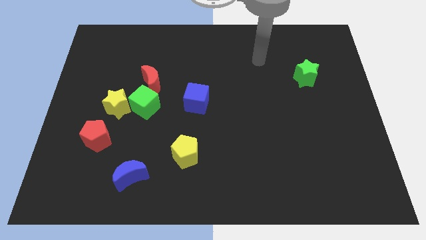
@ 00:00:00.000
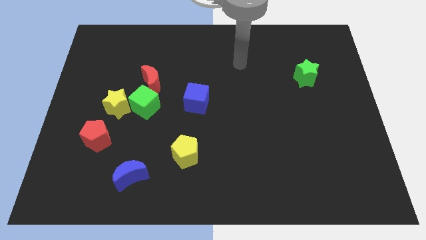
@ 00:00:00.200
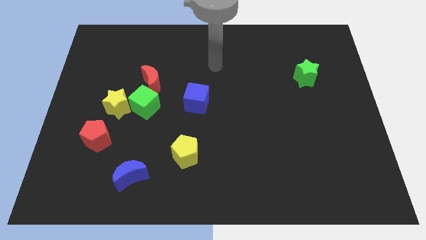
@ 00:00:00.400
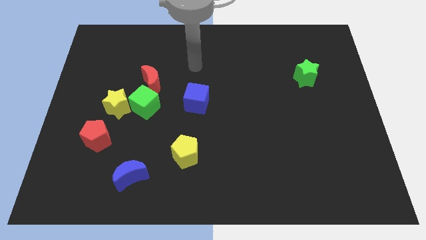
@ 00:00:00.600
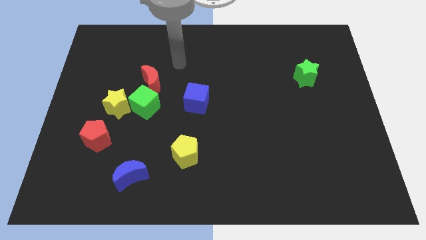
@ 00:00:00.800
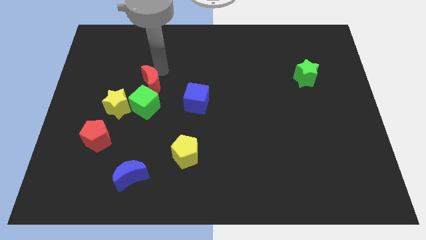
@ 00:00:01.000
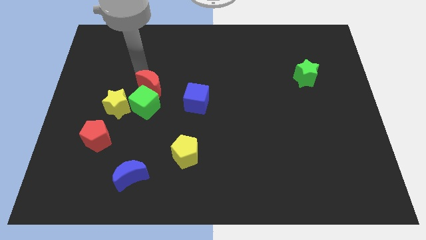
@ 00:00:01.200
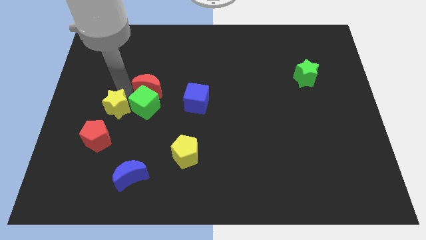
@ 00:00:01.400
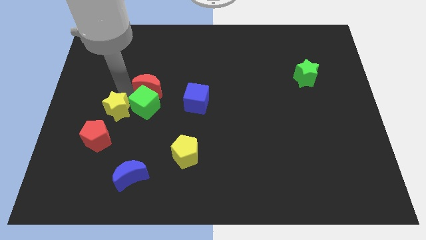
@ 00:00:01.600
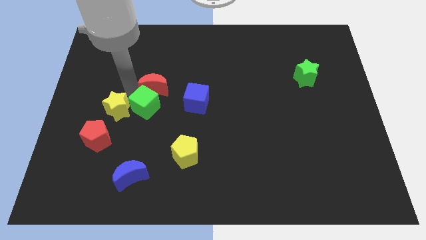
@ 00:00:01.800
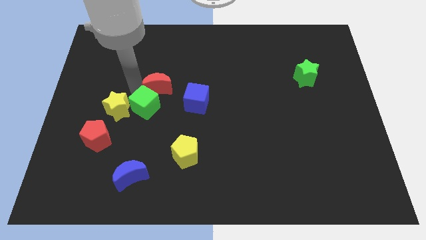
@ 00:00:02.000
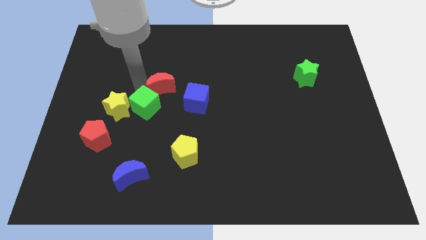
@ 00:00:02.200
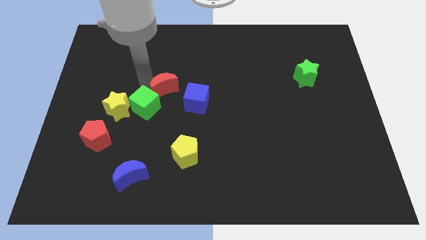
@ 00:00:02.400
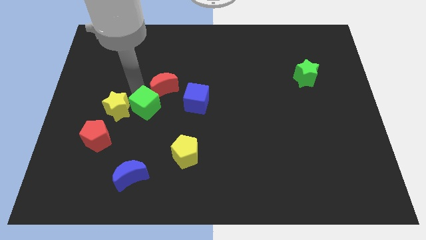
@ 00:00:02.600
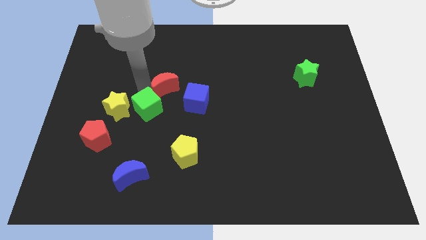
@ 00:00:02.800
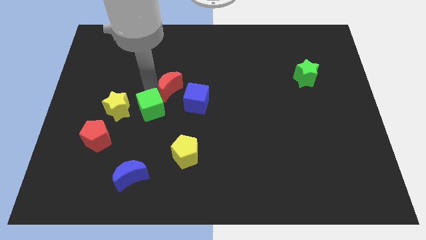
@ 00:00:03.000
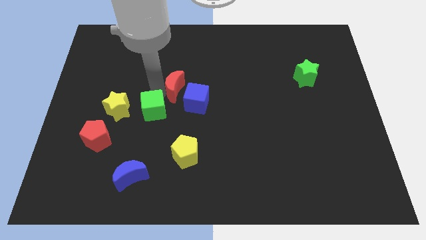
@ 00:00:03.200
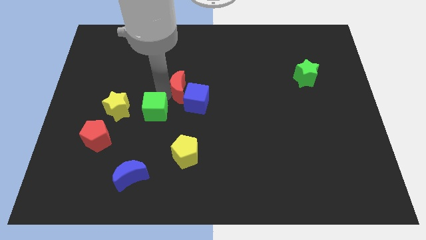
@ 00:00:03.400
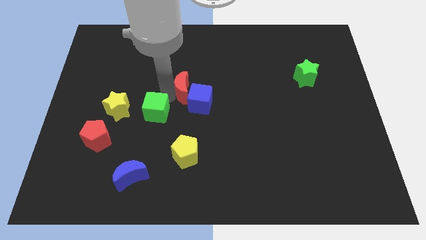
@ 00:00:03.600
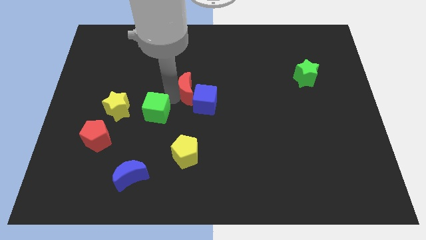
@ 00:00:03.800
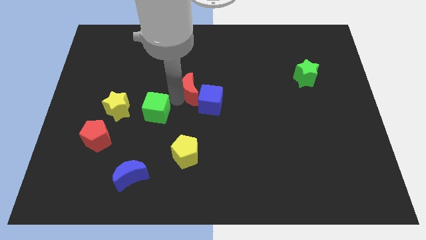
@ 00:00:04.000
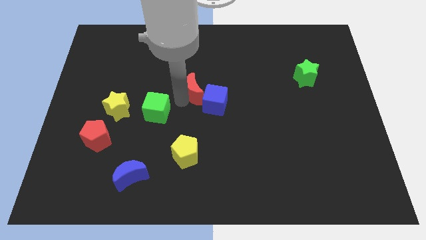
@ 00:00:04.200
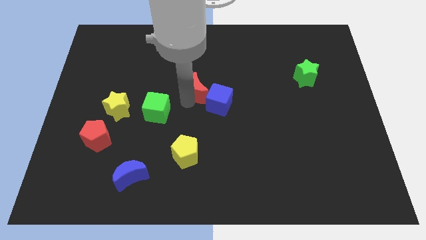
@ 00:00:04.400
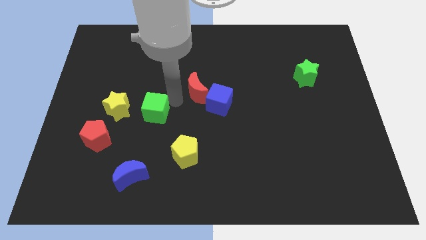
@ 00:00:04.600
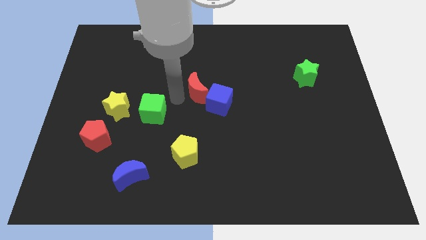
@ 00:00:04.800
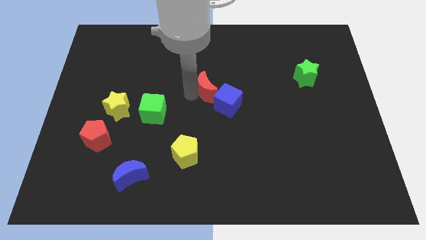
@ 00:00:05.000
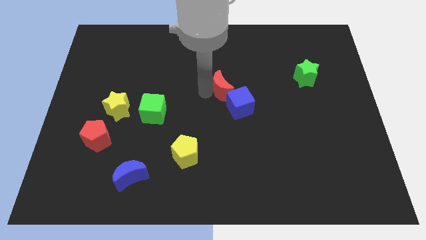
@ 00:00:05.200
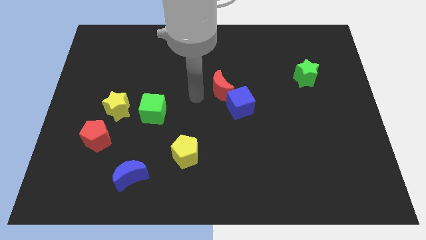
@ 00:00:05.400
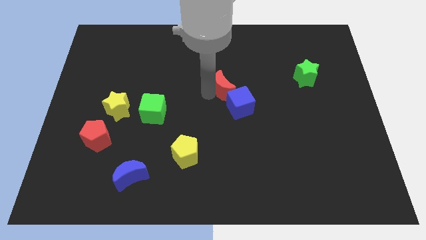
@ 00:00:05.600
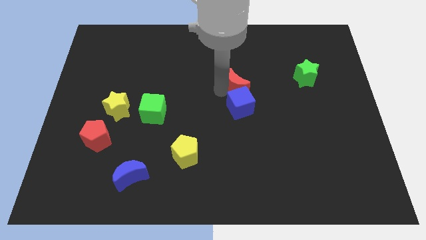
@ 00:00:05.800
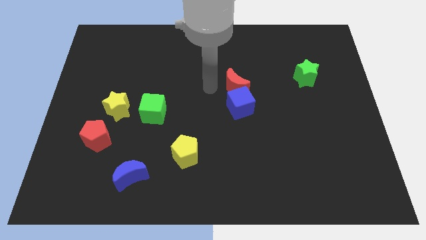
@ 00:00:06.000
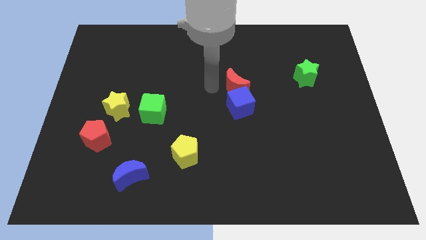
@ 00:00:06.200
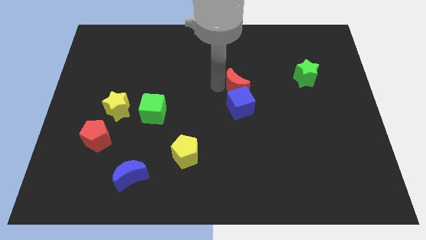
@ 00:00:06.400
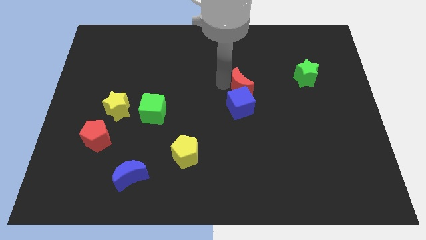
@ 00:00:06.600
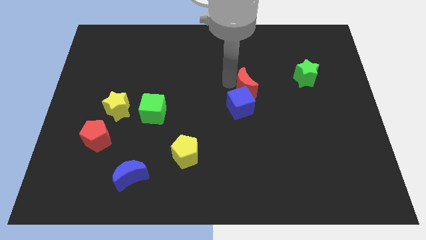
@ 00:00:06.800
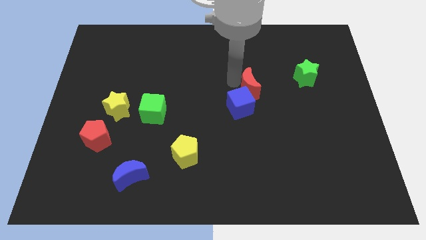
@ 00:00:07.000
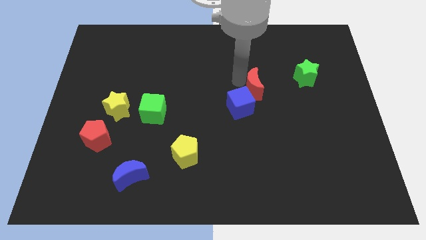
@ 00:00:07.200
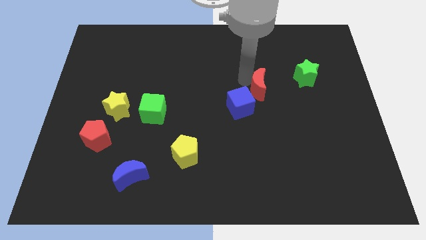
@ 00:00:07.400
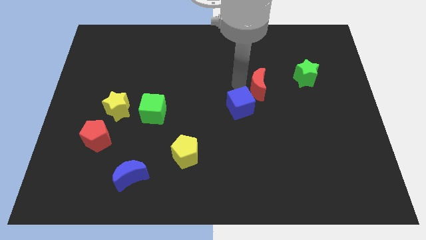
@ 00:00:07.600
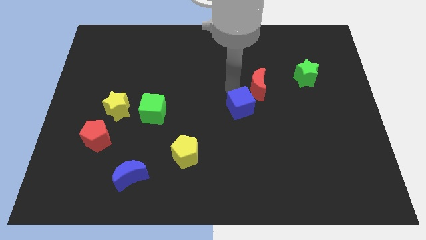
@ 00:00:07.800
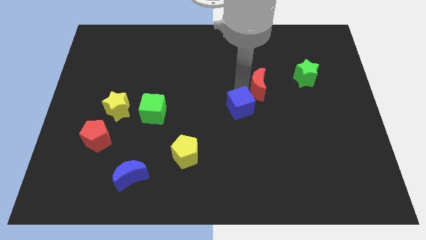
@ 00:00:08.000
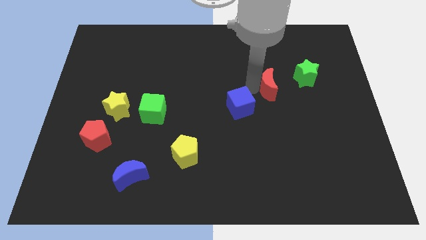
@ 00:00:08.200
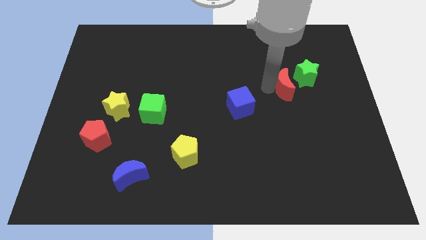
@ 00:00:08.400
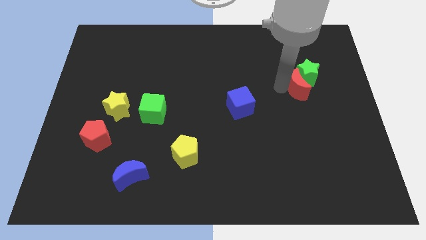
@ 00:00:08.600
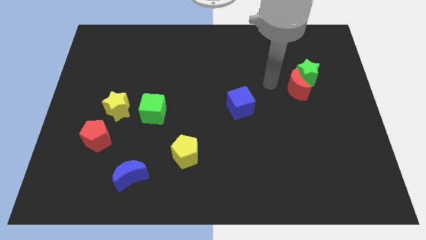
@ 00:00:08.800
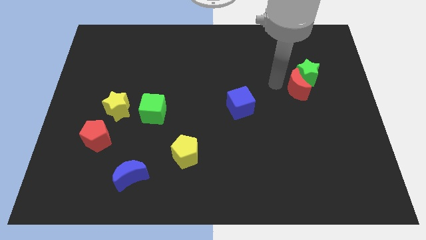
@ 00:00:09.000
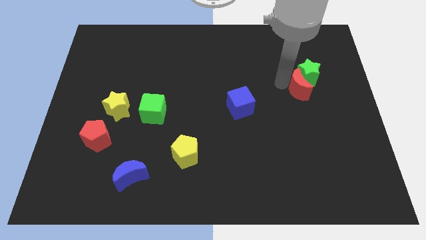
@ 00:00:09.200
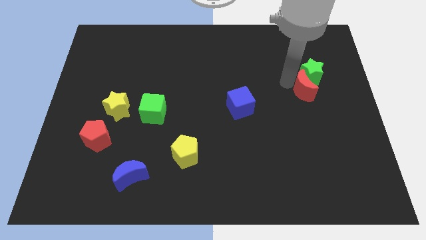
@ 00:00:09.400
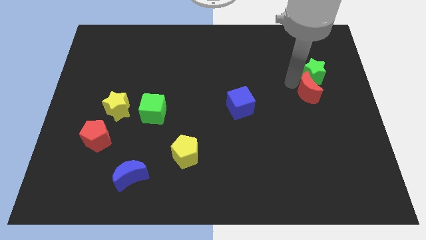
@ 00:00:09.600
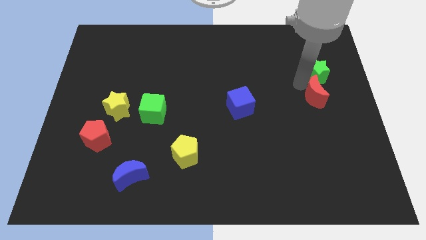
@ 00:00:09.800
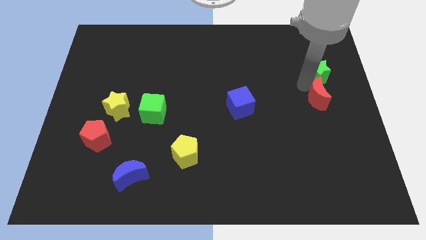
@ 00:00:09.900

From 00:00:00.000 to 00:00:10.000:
move the red moon to the center right

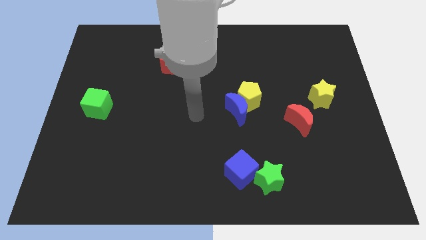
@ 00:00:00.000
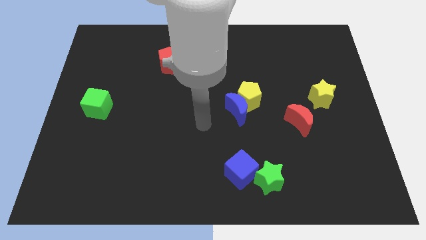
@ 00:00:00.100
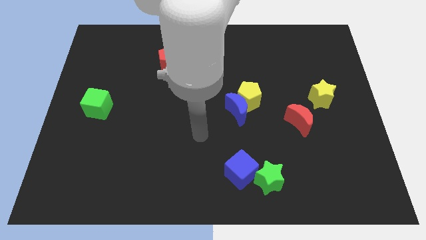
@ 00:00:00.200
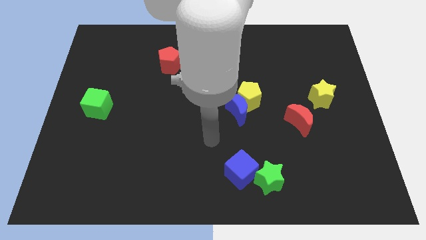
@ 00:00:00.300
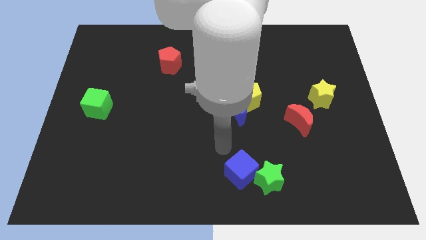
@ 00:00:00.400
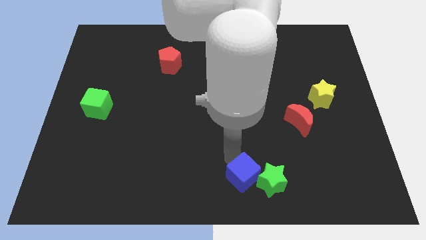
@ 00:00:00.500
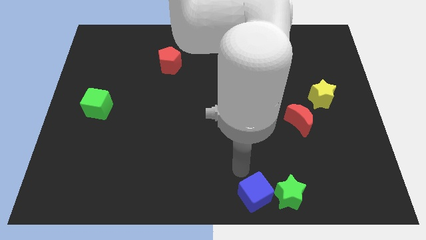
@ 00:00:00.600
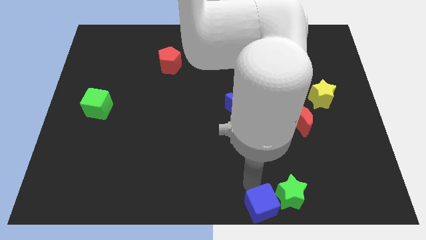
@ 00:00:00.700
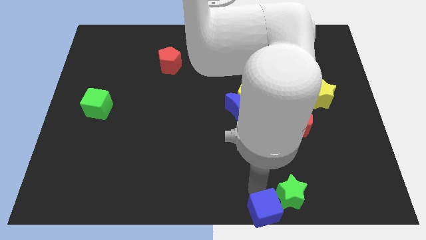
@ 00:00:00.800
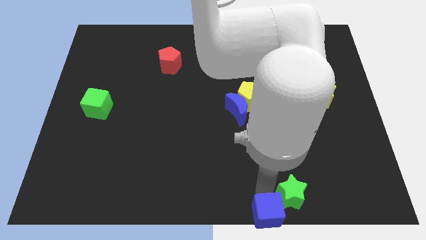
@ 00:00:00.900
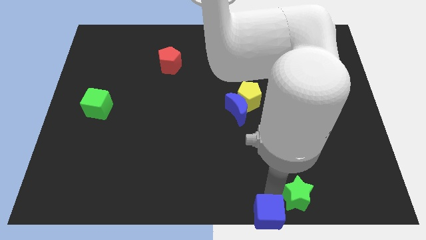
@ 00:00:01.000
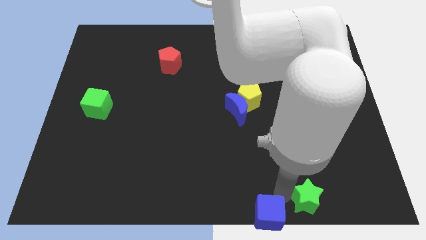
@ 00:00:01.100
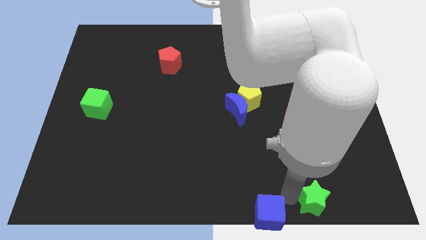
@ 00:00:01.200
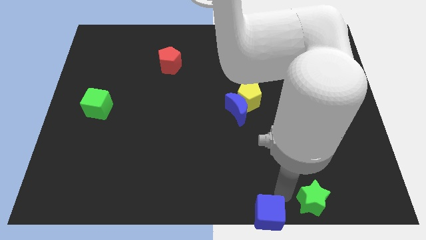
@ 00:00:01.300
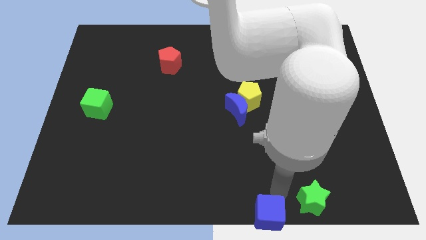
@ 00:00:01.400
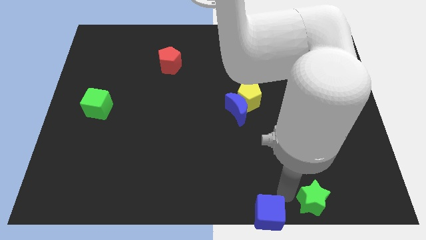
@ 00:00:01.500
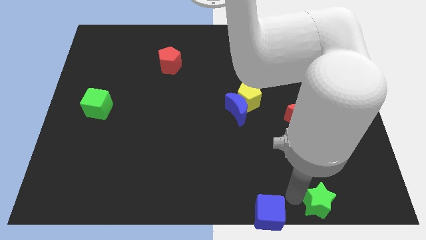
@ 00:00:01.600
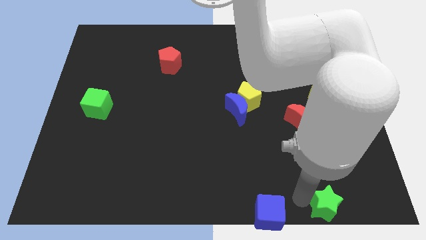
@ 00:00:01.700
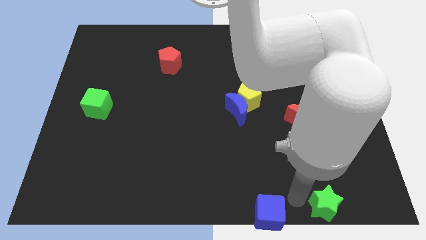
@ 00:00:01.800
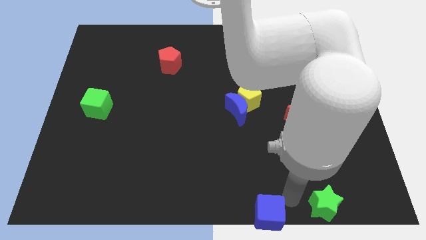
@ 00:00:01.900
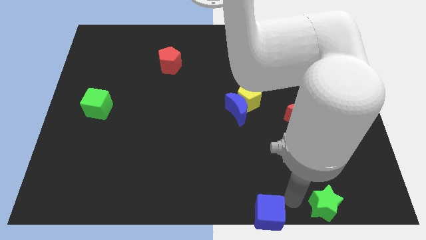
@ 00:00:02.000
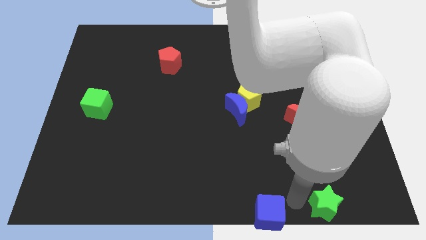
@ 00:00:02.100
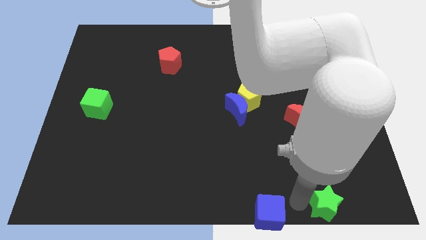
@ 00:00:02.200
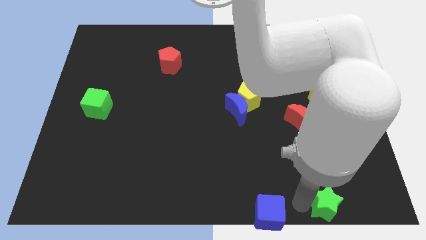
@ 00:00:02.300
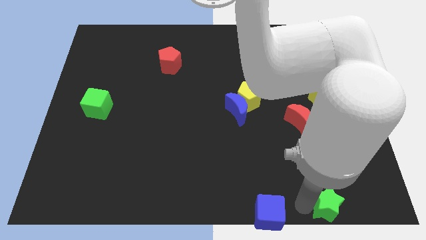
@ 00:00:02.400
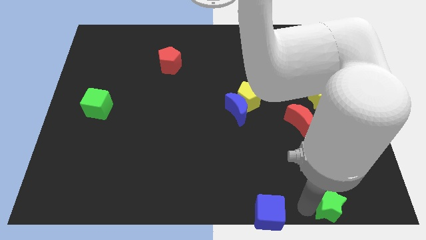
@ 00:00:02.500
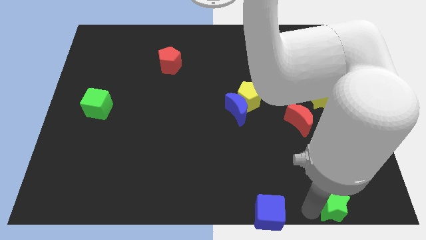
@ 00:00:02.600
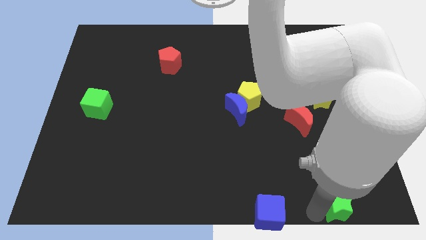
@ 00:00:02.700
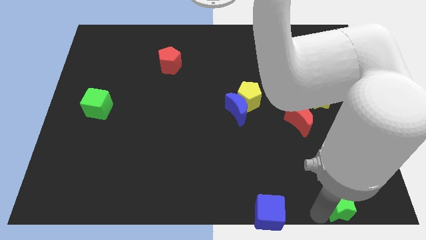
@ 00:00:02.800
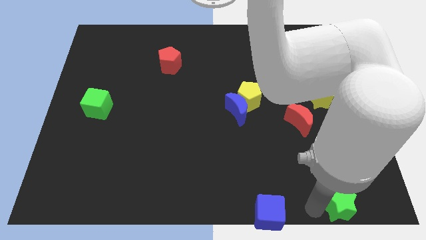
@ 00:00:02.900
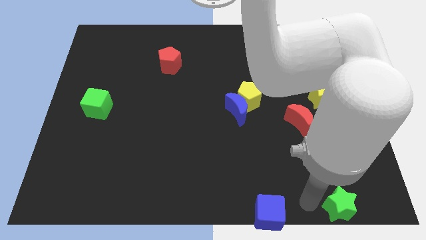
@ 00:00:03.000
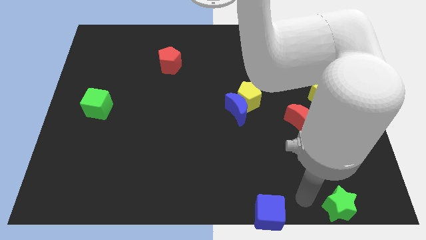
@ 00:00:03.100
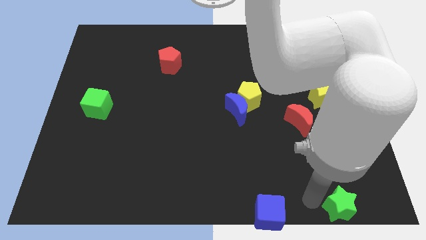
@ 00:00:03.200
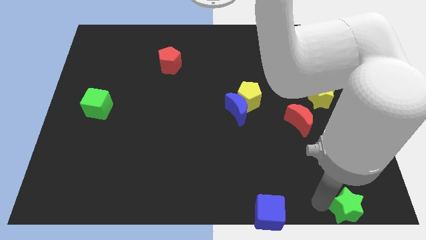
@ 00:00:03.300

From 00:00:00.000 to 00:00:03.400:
slide the green star to the bottom right of the board
